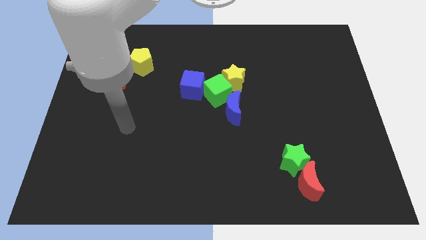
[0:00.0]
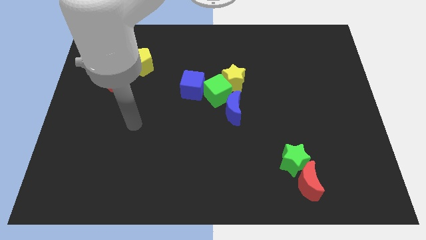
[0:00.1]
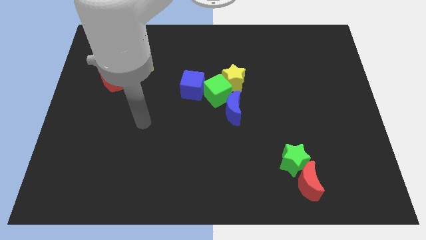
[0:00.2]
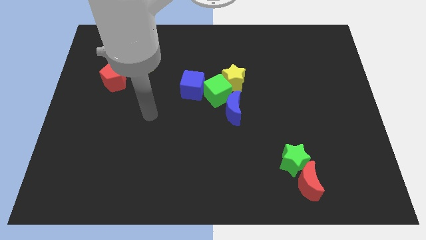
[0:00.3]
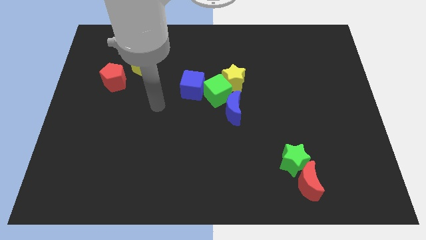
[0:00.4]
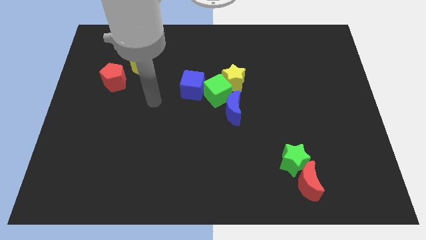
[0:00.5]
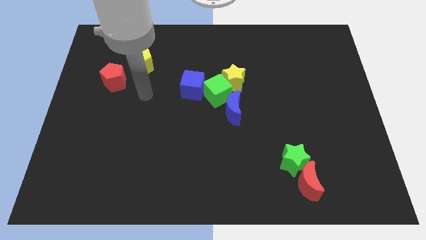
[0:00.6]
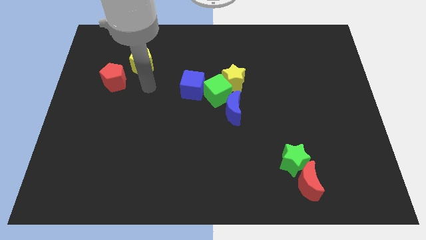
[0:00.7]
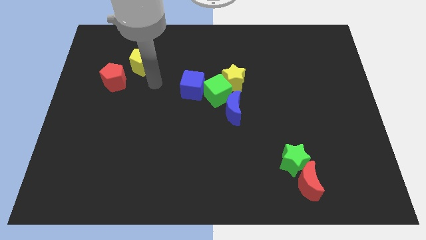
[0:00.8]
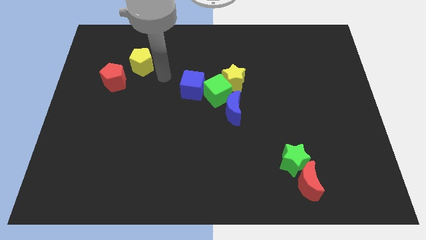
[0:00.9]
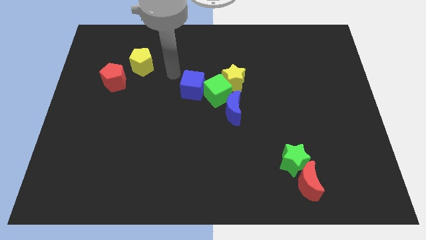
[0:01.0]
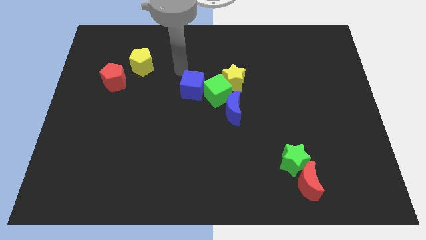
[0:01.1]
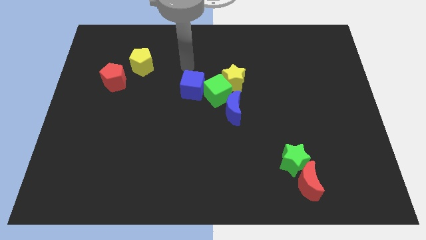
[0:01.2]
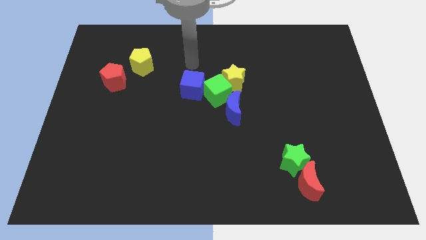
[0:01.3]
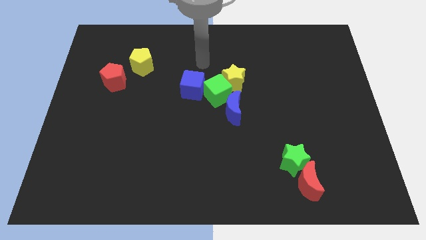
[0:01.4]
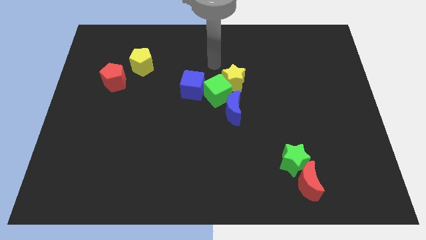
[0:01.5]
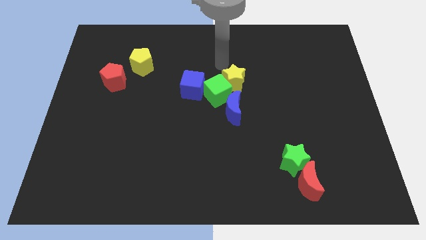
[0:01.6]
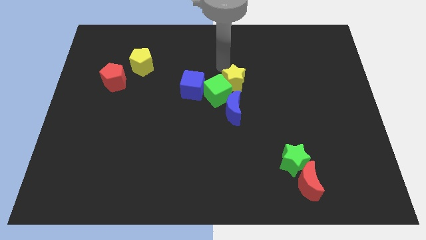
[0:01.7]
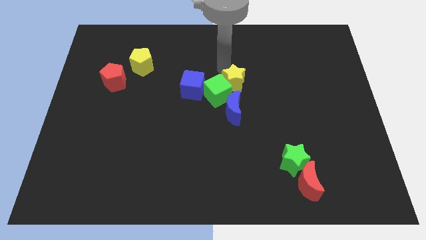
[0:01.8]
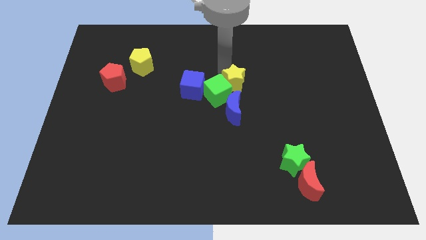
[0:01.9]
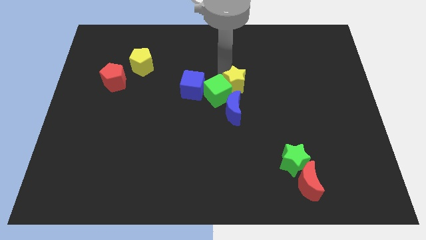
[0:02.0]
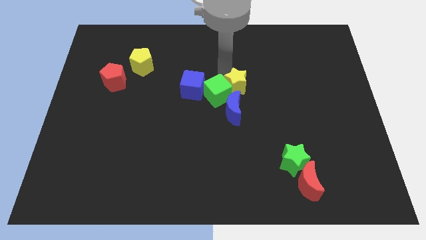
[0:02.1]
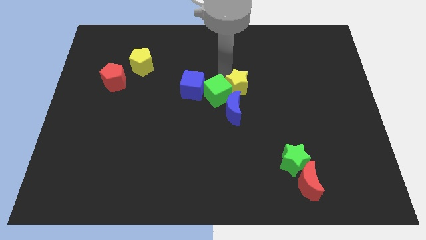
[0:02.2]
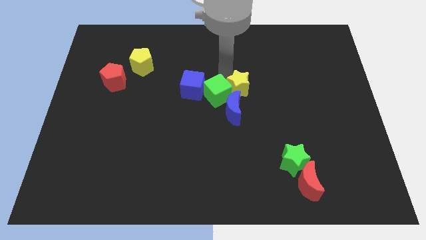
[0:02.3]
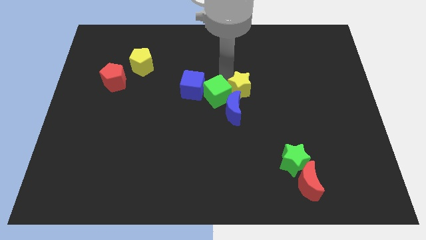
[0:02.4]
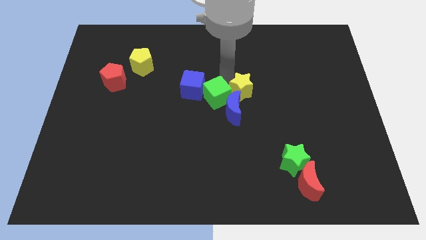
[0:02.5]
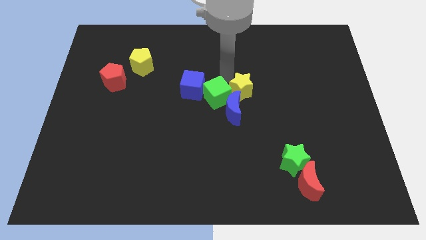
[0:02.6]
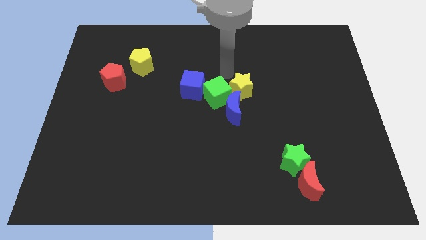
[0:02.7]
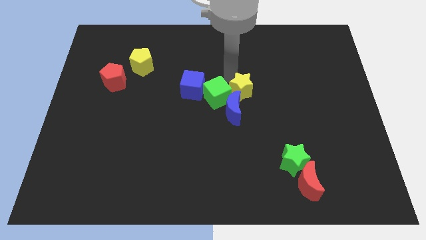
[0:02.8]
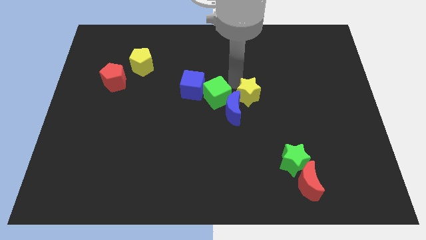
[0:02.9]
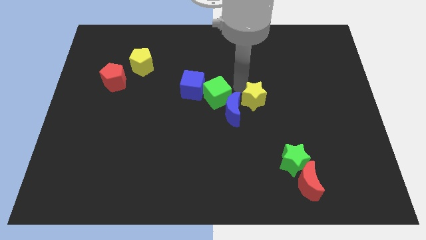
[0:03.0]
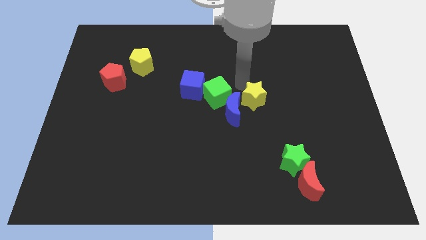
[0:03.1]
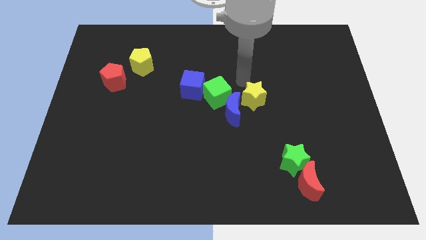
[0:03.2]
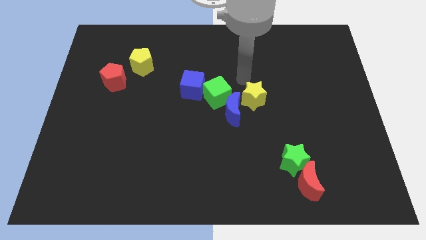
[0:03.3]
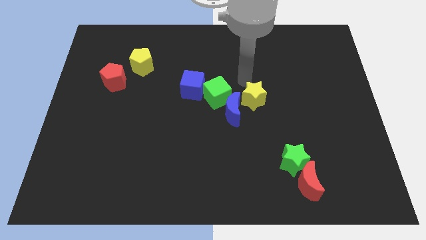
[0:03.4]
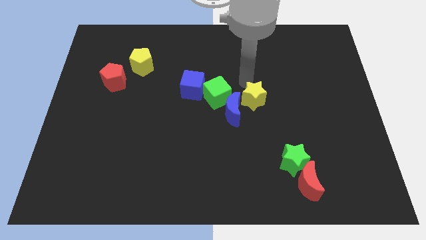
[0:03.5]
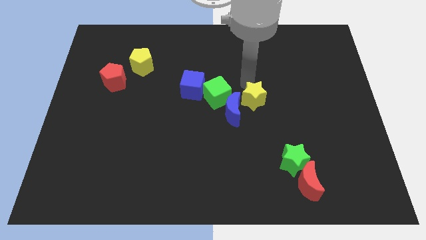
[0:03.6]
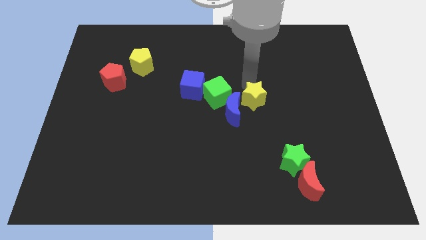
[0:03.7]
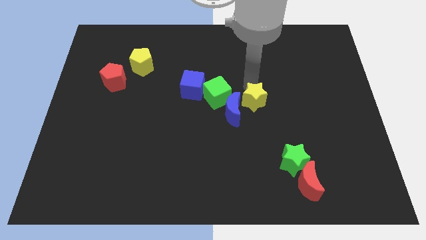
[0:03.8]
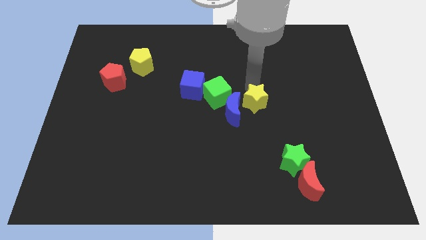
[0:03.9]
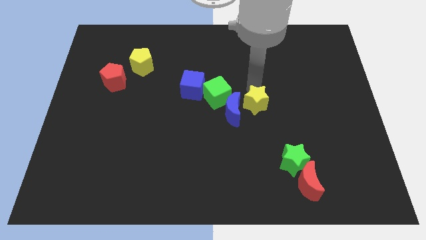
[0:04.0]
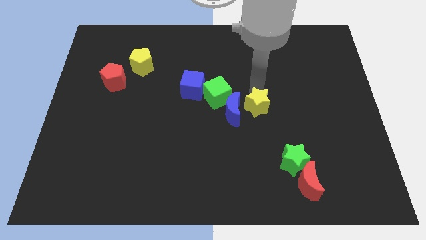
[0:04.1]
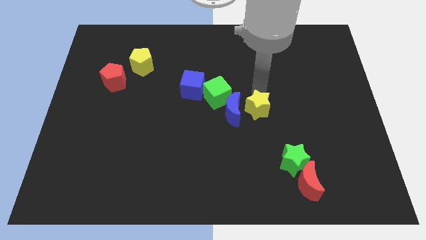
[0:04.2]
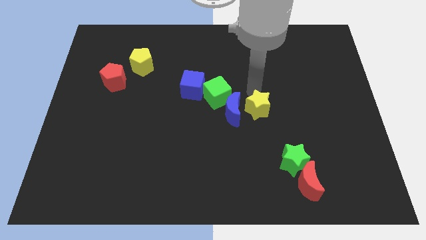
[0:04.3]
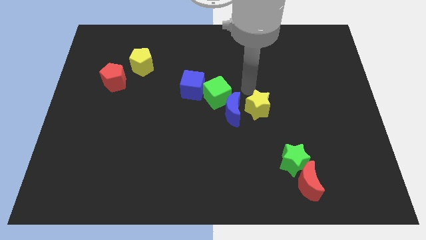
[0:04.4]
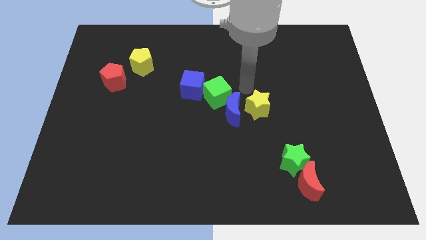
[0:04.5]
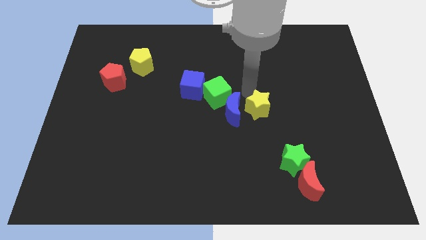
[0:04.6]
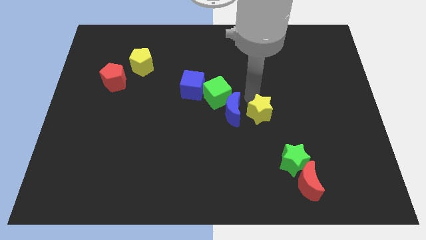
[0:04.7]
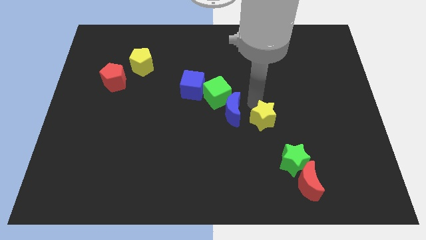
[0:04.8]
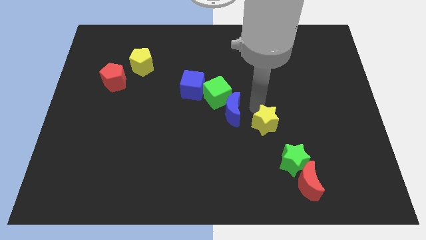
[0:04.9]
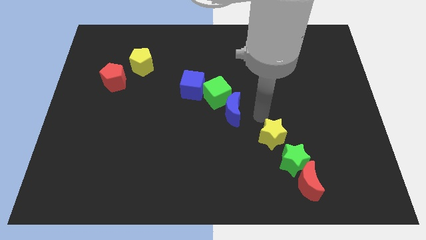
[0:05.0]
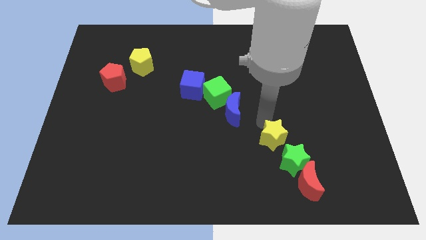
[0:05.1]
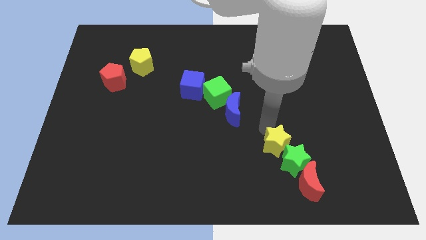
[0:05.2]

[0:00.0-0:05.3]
slide the yellow star close to the green star

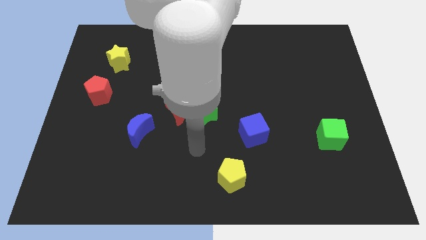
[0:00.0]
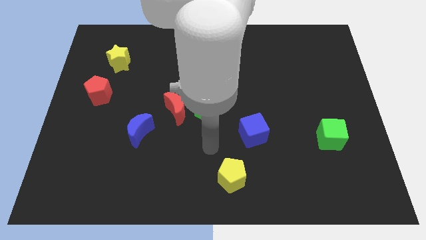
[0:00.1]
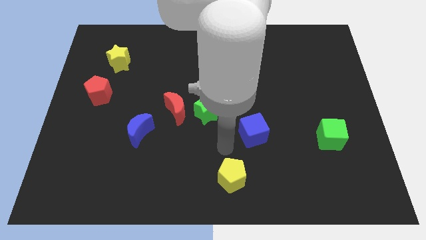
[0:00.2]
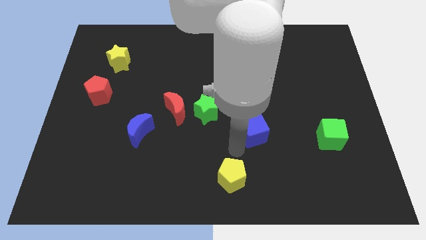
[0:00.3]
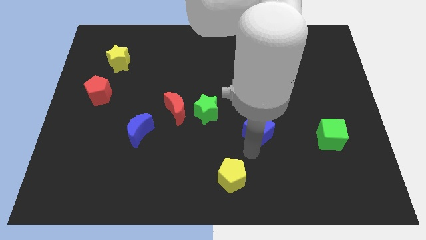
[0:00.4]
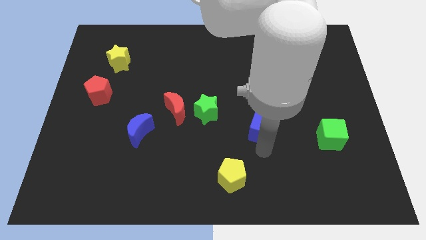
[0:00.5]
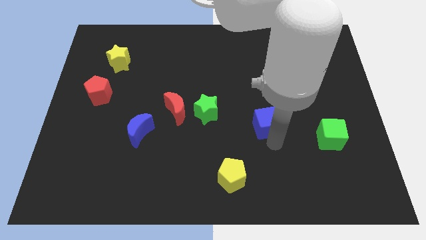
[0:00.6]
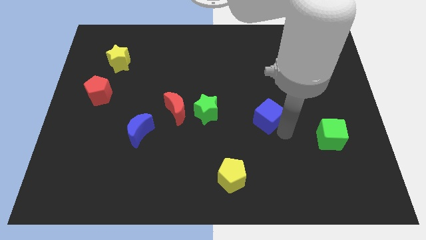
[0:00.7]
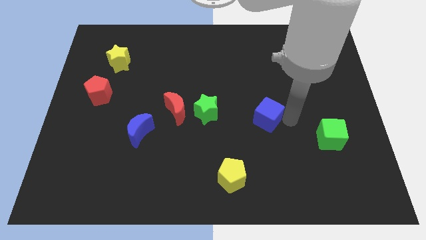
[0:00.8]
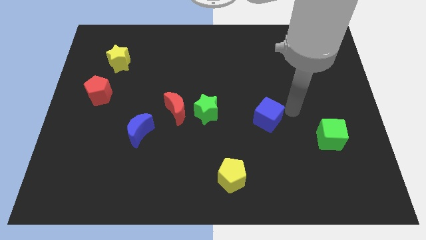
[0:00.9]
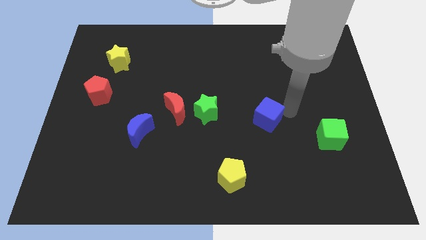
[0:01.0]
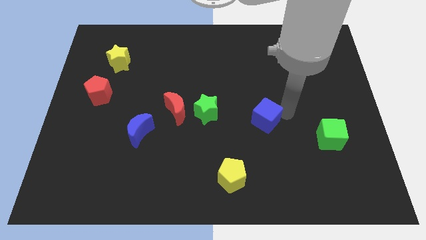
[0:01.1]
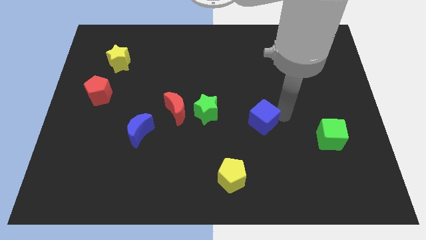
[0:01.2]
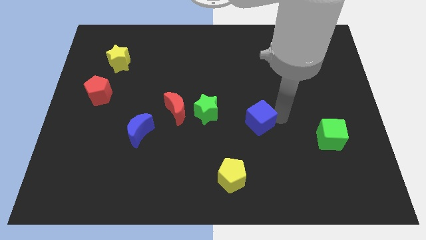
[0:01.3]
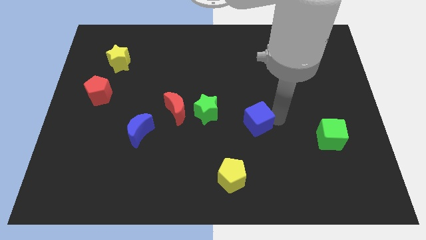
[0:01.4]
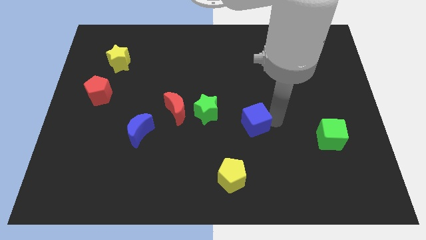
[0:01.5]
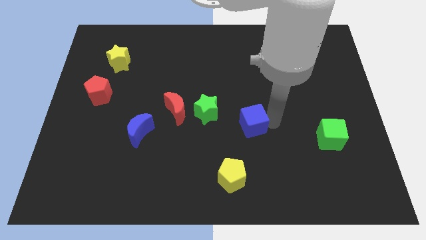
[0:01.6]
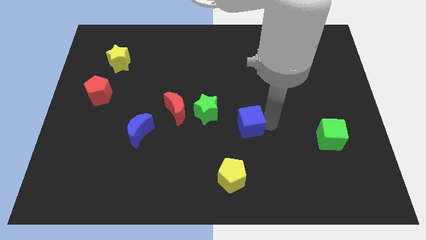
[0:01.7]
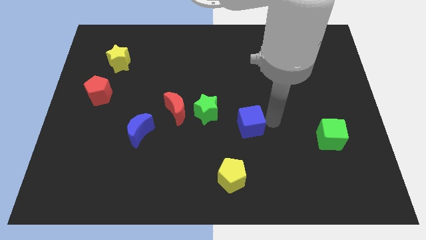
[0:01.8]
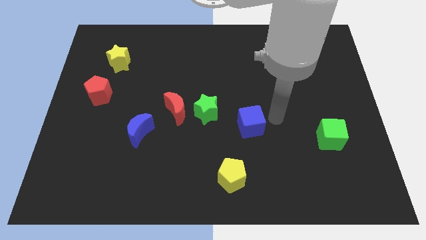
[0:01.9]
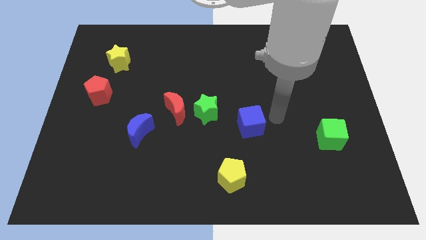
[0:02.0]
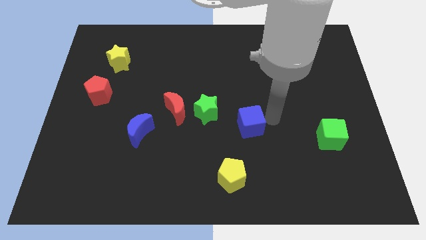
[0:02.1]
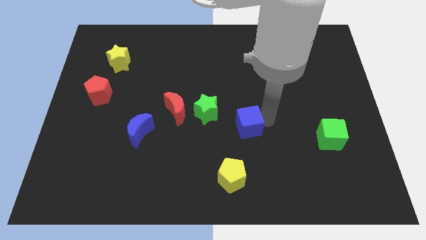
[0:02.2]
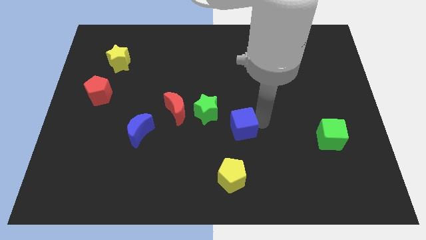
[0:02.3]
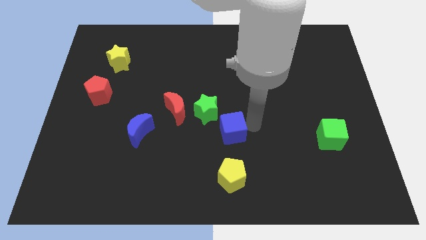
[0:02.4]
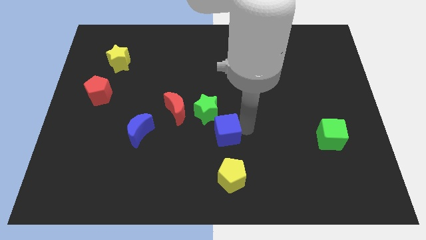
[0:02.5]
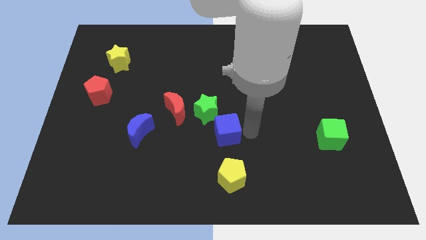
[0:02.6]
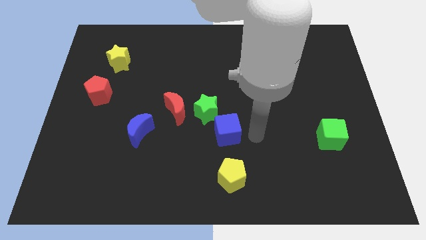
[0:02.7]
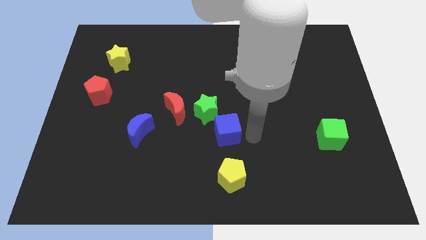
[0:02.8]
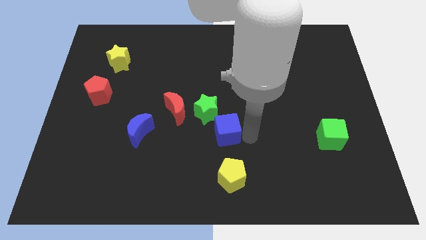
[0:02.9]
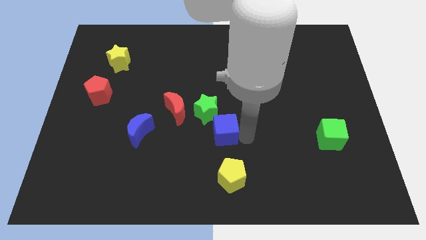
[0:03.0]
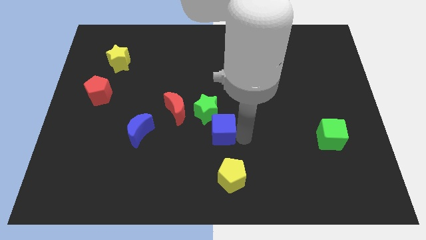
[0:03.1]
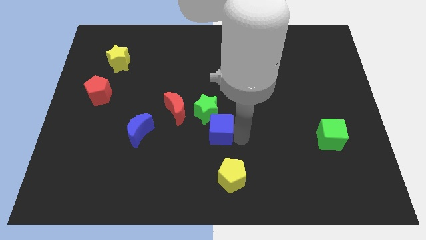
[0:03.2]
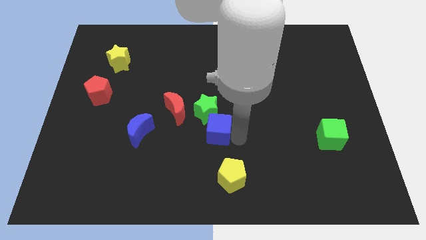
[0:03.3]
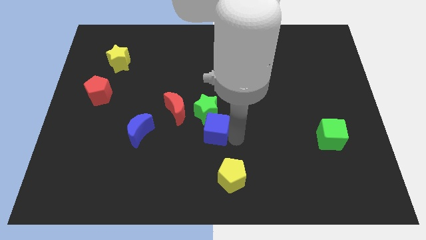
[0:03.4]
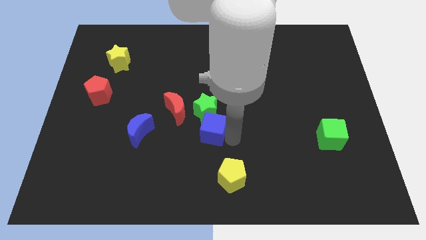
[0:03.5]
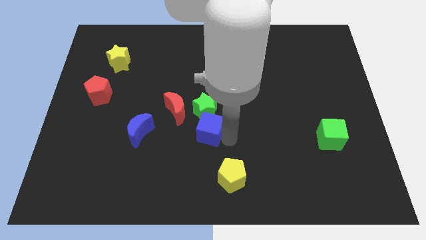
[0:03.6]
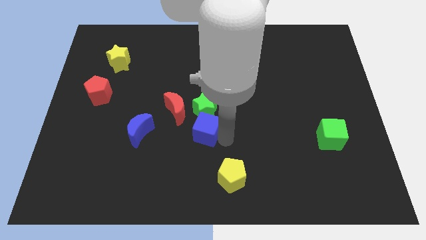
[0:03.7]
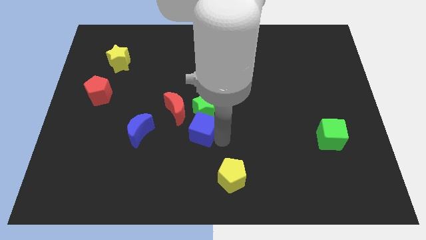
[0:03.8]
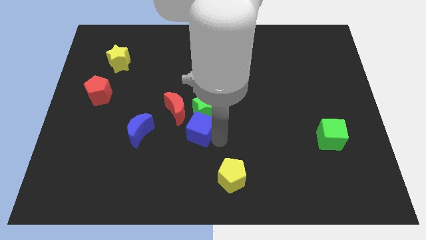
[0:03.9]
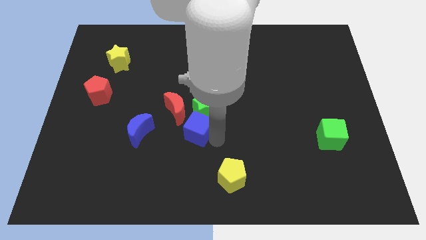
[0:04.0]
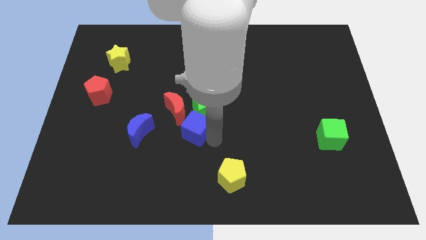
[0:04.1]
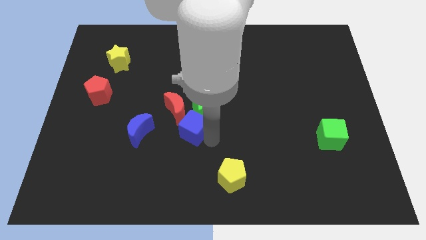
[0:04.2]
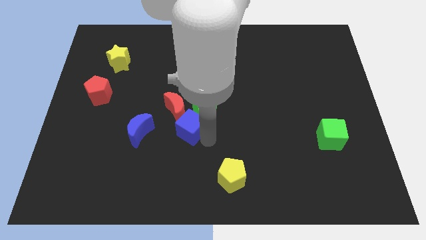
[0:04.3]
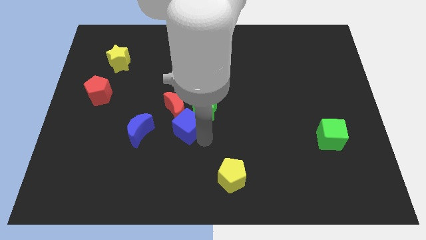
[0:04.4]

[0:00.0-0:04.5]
push the blue cube to the red moon
